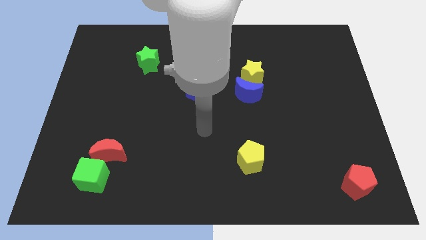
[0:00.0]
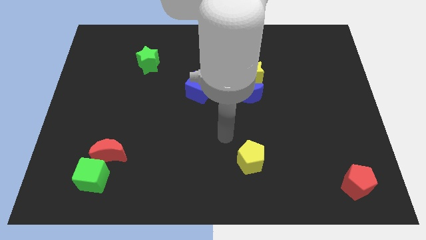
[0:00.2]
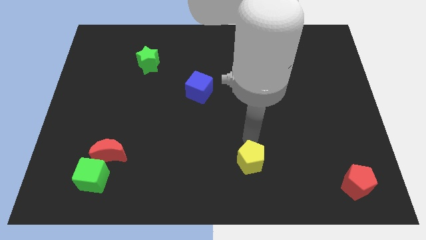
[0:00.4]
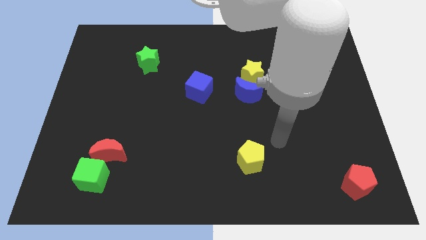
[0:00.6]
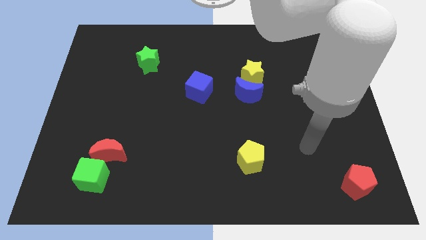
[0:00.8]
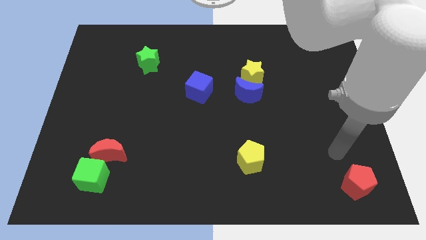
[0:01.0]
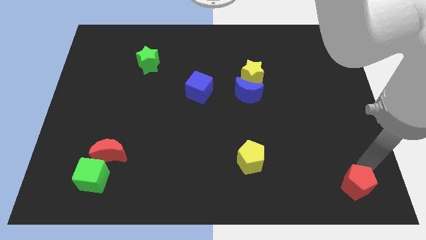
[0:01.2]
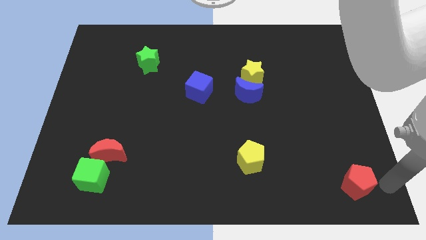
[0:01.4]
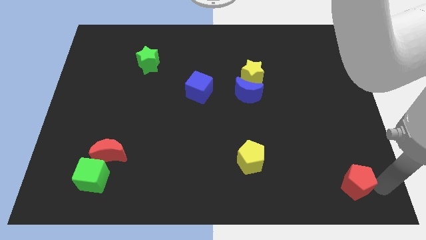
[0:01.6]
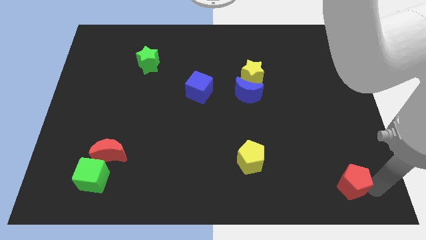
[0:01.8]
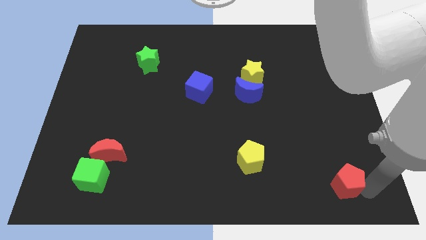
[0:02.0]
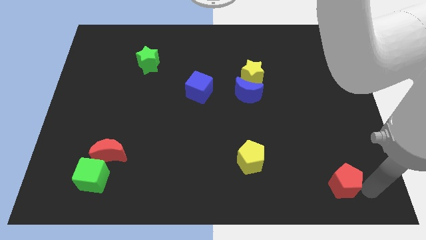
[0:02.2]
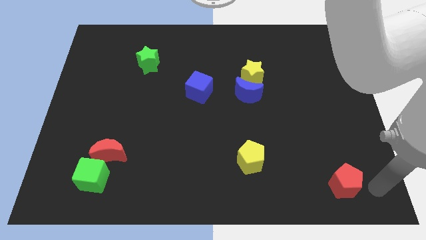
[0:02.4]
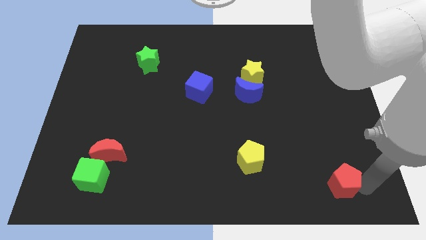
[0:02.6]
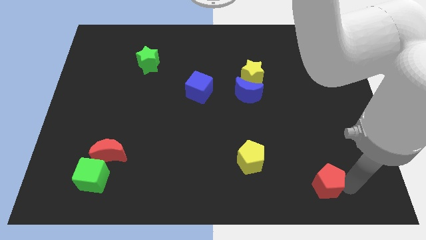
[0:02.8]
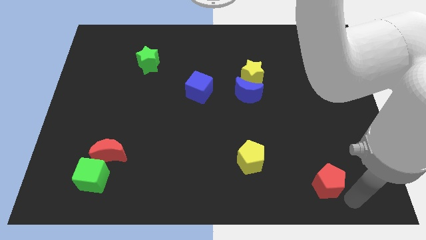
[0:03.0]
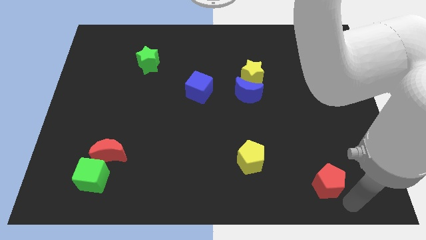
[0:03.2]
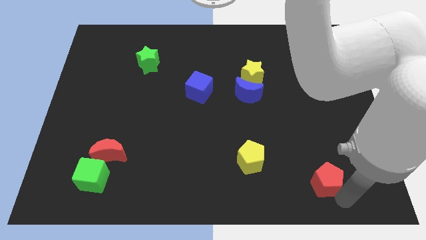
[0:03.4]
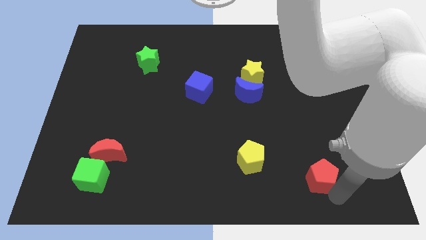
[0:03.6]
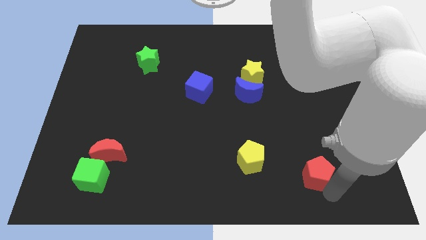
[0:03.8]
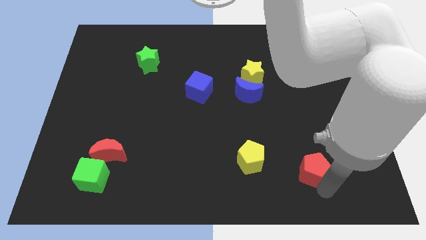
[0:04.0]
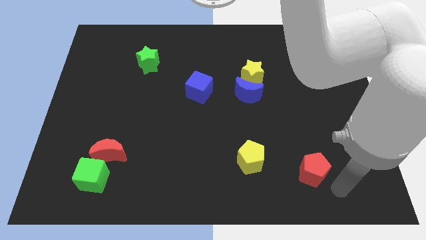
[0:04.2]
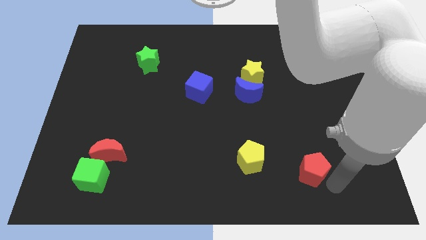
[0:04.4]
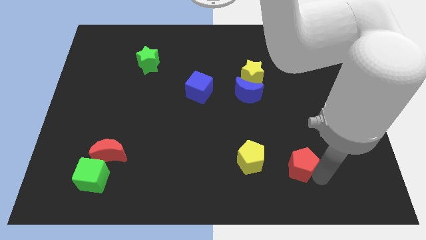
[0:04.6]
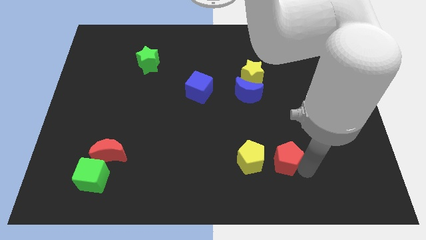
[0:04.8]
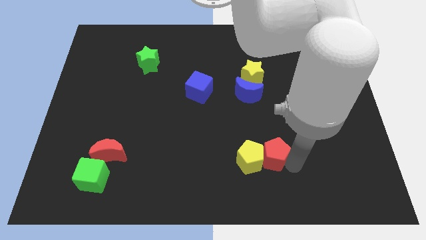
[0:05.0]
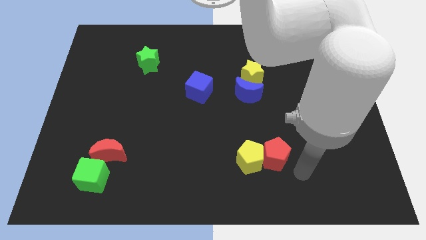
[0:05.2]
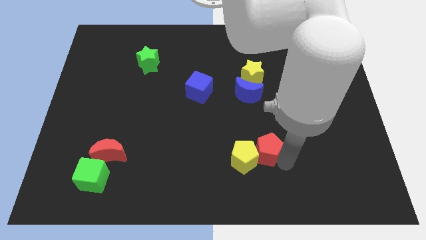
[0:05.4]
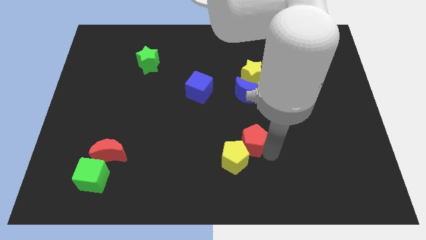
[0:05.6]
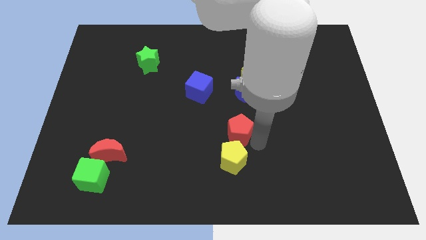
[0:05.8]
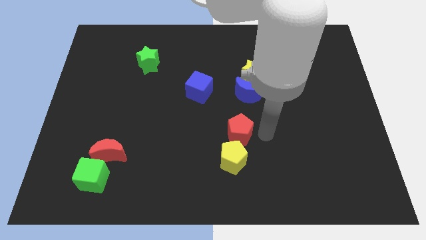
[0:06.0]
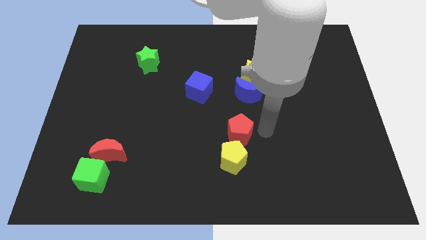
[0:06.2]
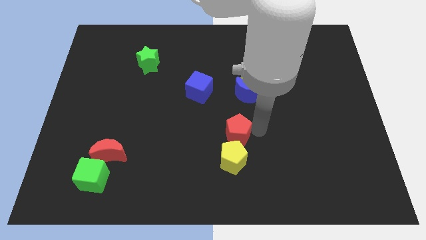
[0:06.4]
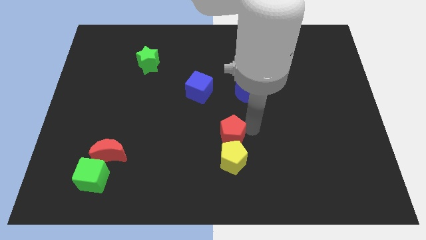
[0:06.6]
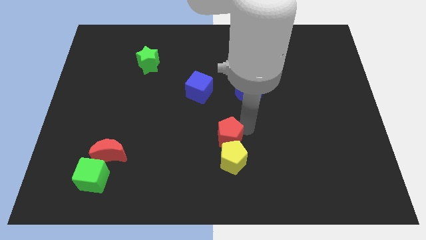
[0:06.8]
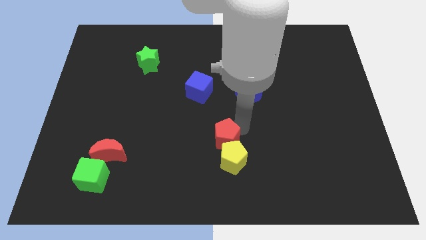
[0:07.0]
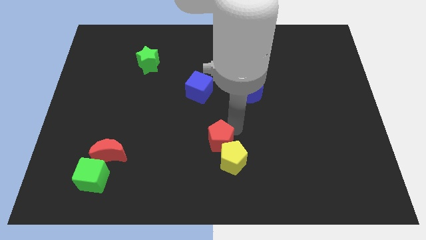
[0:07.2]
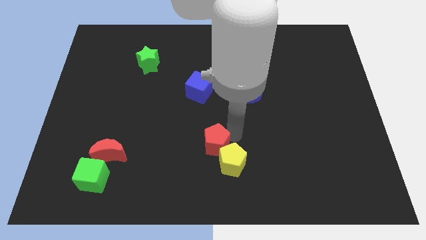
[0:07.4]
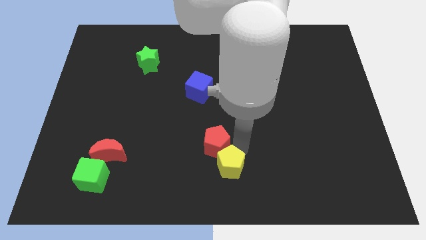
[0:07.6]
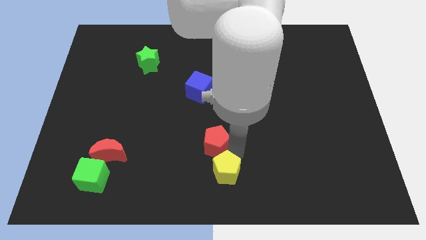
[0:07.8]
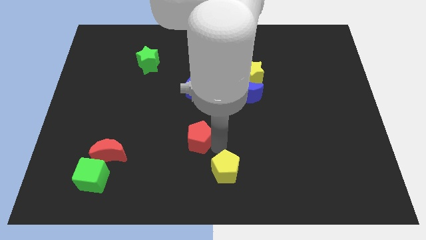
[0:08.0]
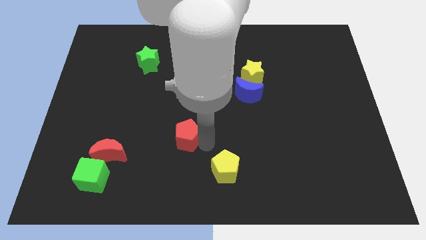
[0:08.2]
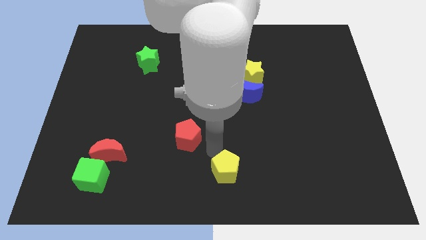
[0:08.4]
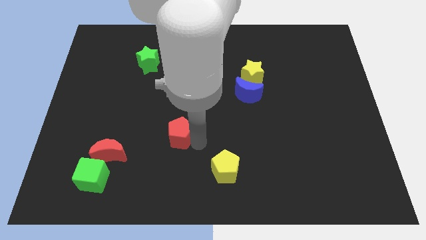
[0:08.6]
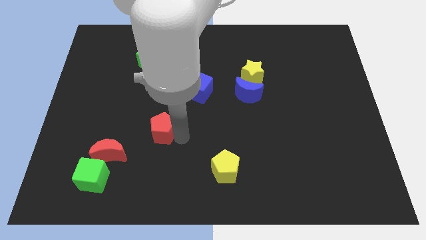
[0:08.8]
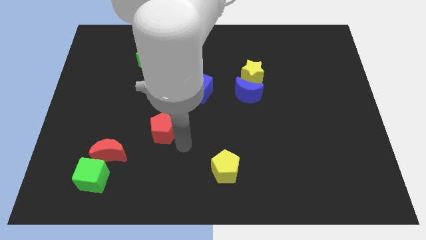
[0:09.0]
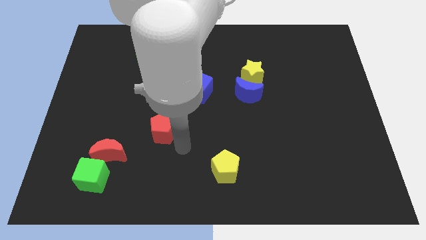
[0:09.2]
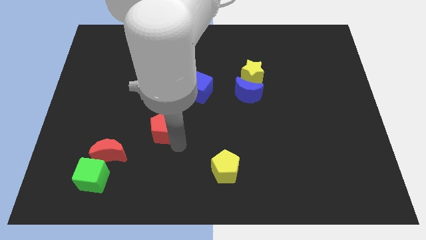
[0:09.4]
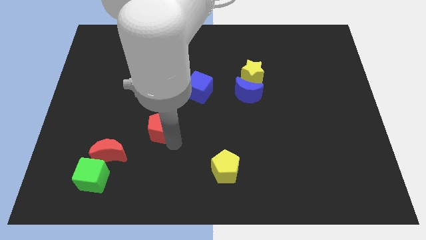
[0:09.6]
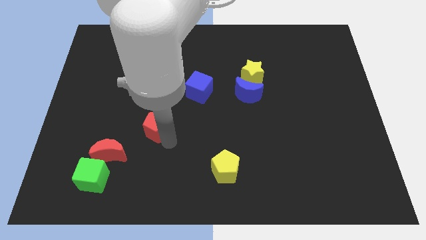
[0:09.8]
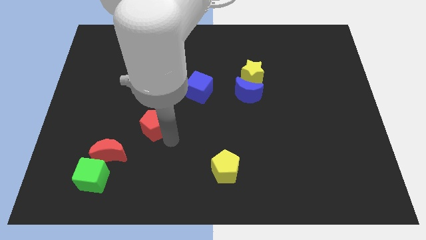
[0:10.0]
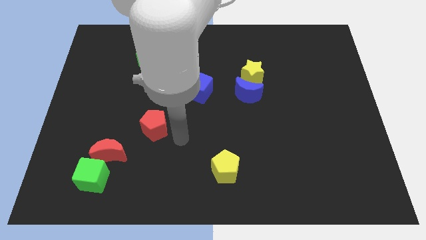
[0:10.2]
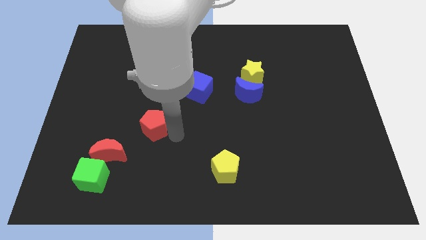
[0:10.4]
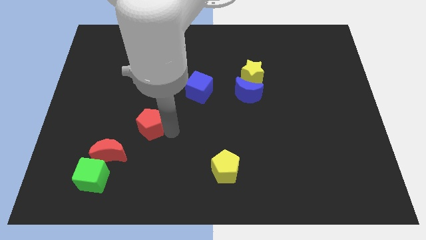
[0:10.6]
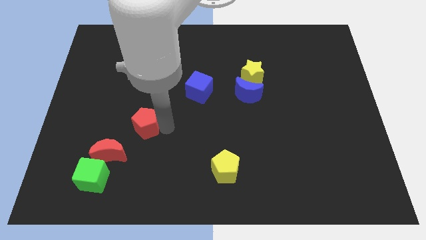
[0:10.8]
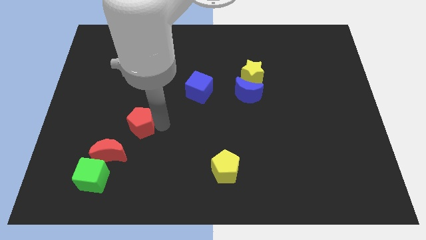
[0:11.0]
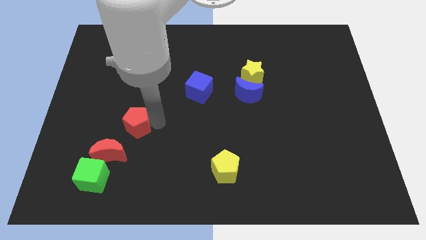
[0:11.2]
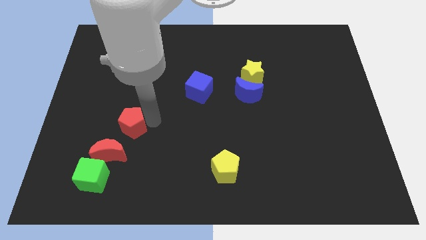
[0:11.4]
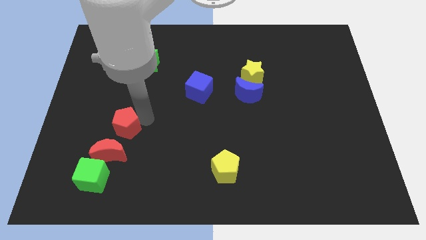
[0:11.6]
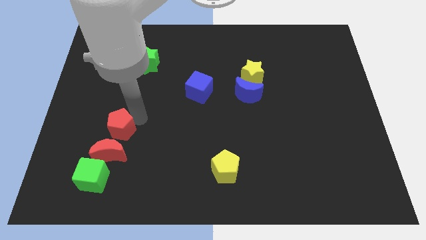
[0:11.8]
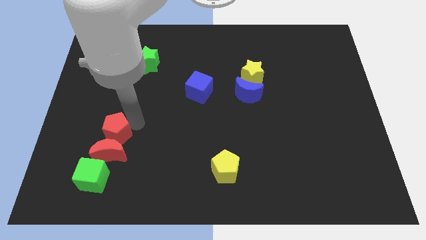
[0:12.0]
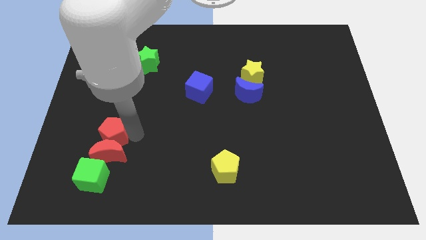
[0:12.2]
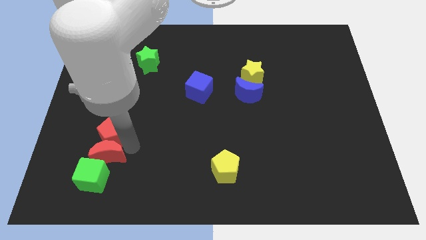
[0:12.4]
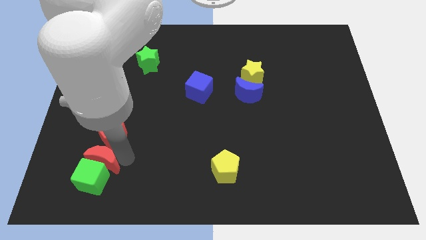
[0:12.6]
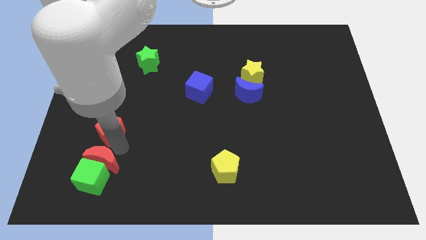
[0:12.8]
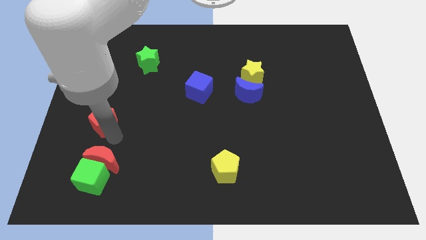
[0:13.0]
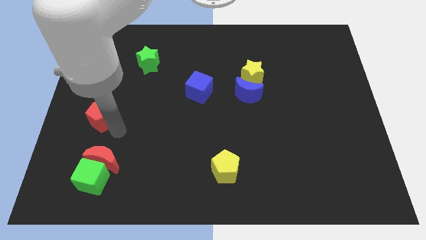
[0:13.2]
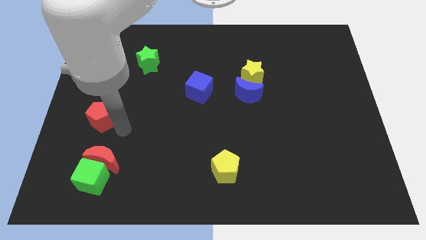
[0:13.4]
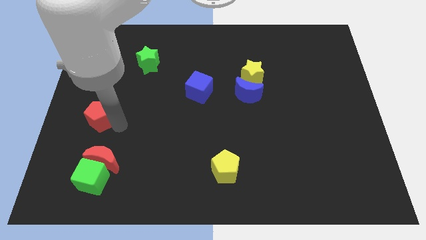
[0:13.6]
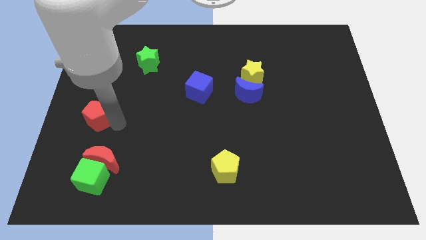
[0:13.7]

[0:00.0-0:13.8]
put the red pentagon to the left side of the board

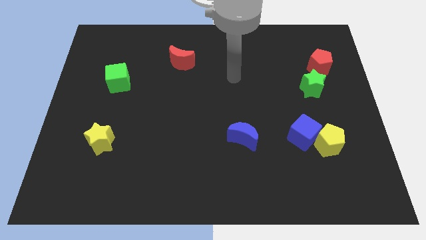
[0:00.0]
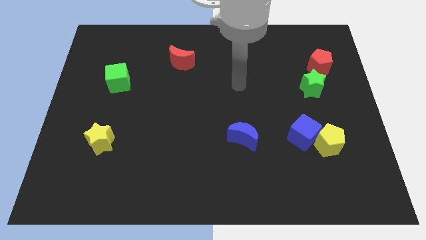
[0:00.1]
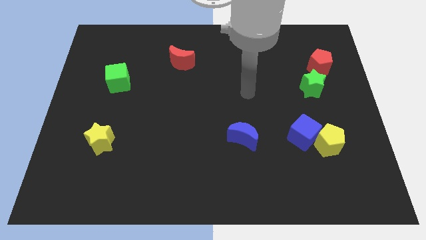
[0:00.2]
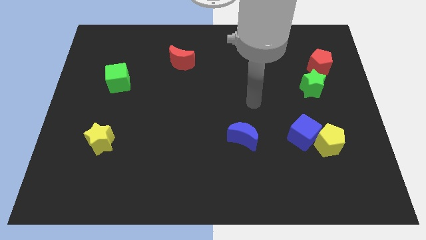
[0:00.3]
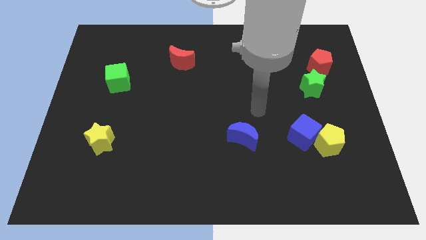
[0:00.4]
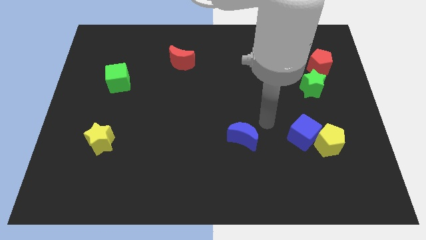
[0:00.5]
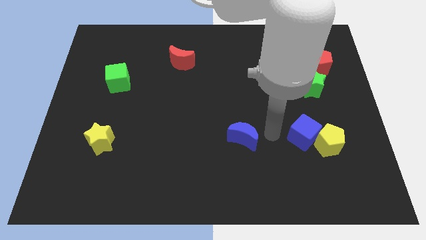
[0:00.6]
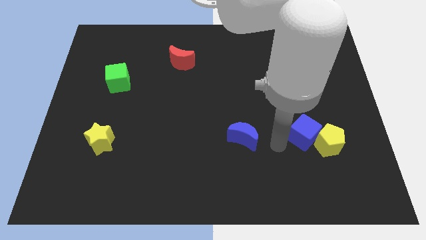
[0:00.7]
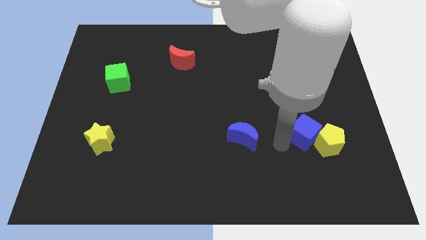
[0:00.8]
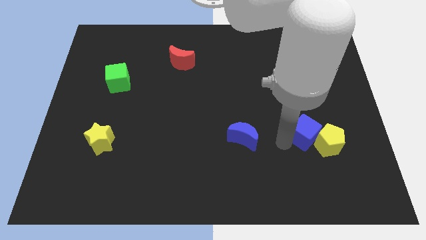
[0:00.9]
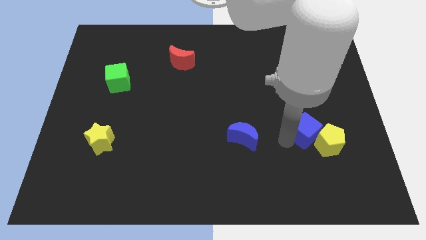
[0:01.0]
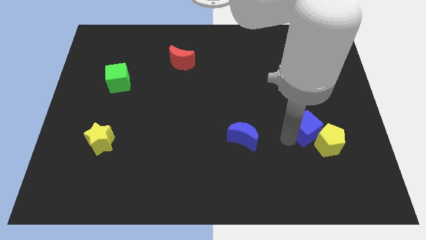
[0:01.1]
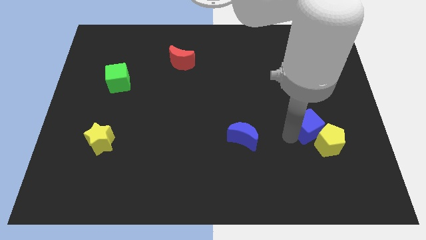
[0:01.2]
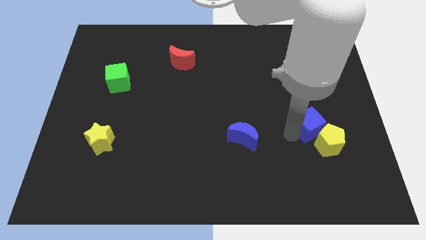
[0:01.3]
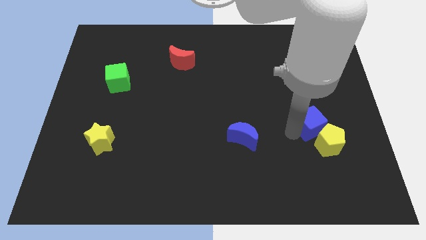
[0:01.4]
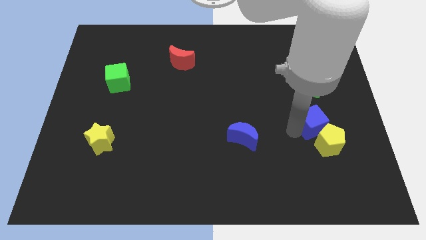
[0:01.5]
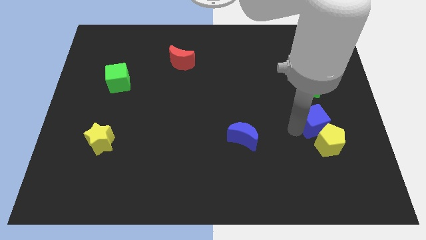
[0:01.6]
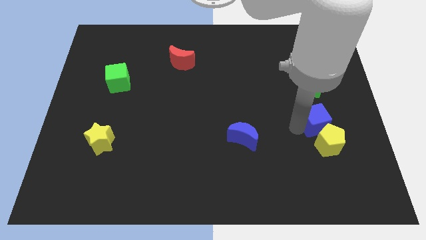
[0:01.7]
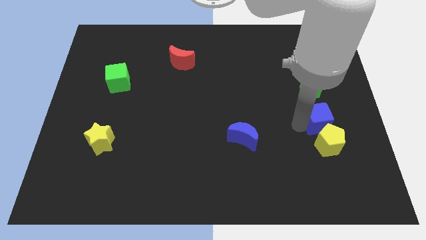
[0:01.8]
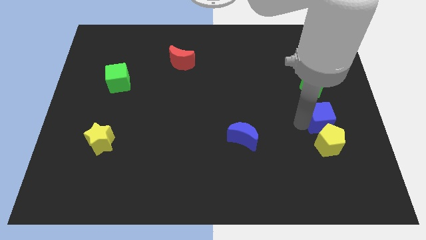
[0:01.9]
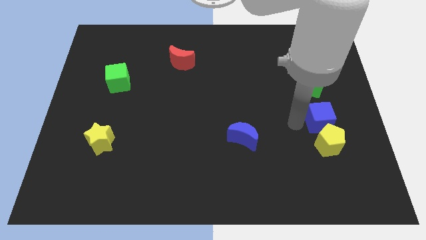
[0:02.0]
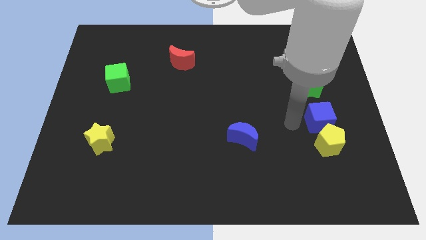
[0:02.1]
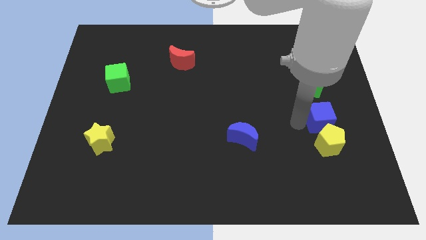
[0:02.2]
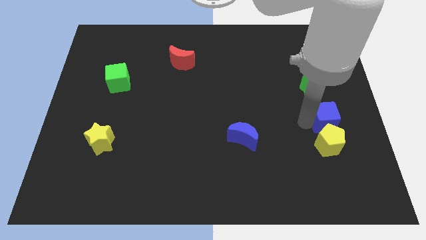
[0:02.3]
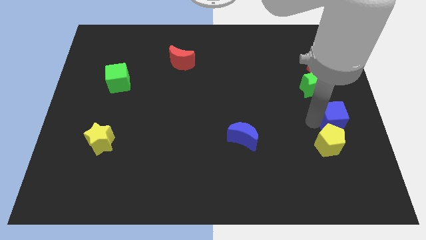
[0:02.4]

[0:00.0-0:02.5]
move the blue cube to the right side of the board
